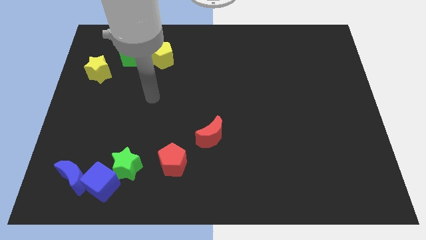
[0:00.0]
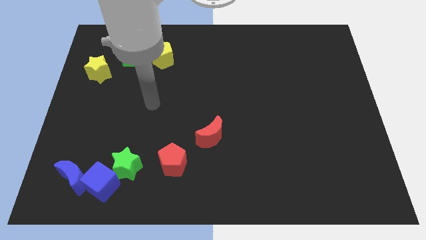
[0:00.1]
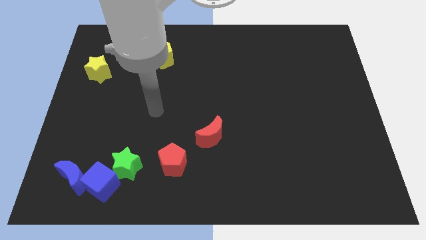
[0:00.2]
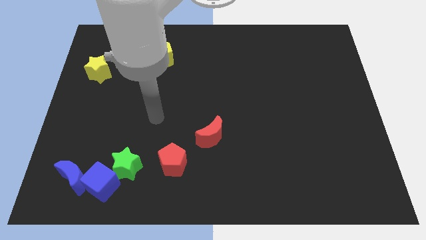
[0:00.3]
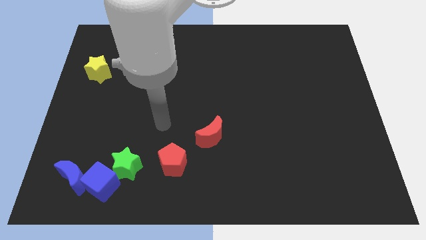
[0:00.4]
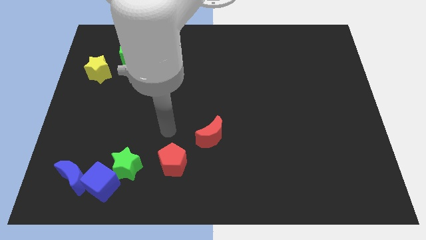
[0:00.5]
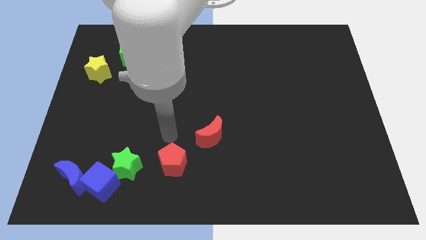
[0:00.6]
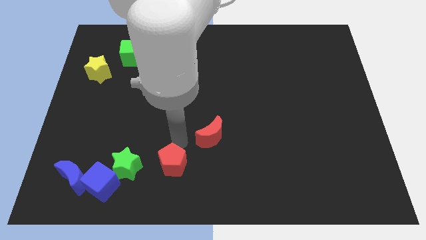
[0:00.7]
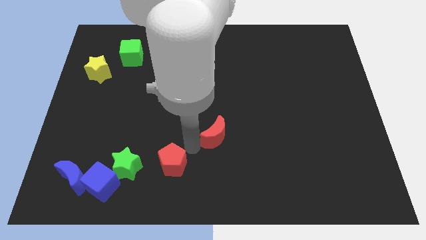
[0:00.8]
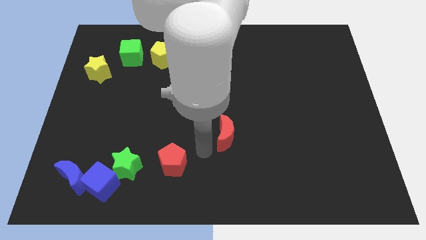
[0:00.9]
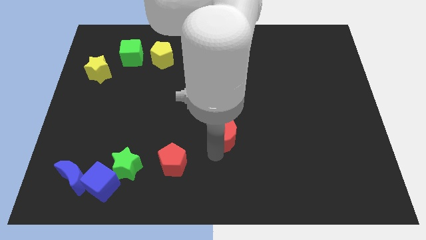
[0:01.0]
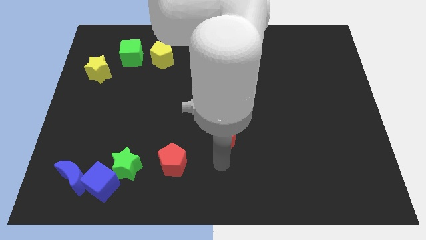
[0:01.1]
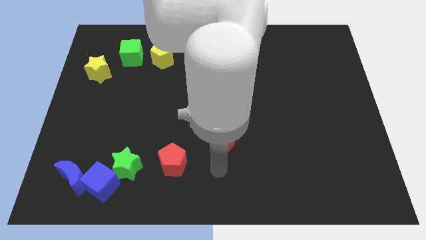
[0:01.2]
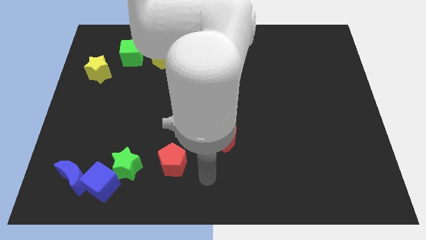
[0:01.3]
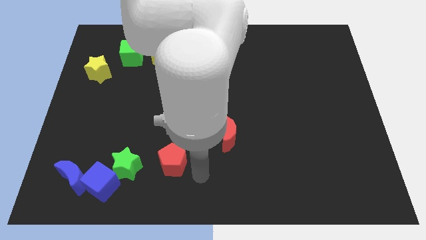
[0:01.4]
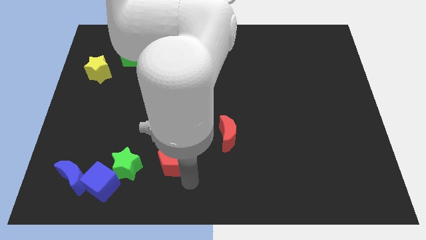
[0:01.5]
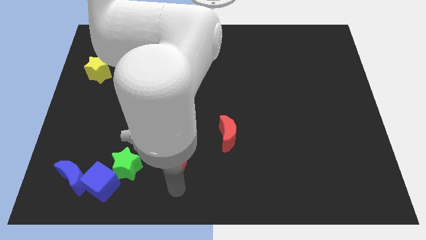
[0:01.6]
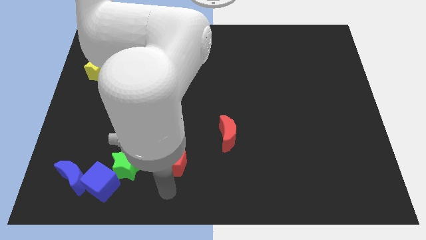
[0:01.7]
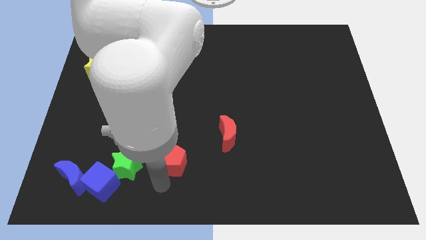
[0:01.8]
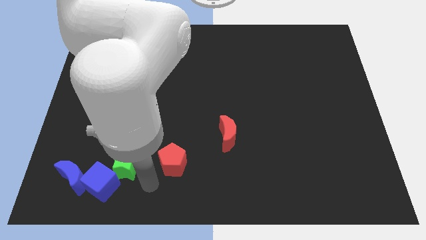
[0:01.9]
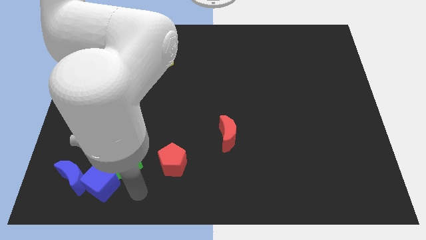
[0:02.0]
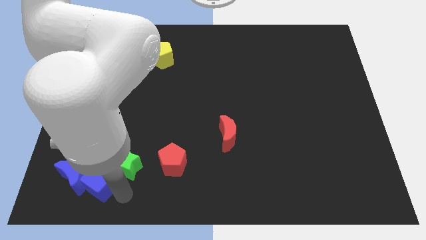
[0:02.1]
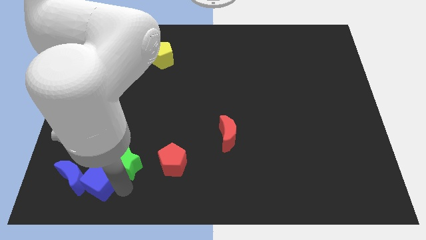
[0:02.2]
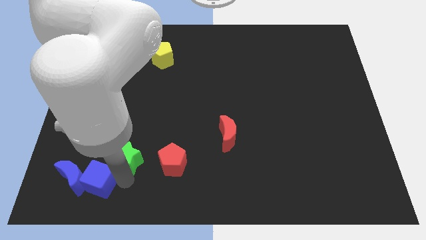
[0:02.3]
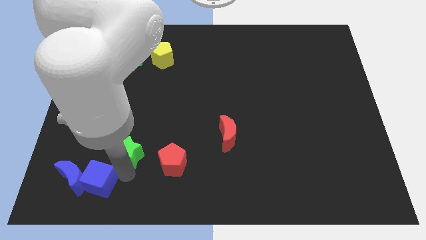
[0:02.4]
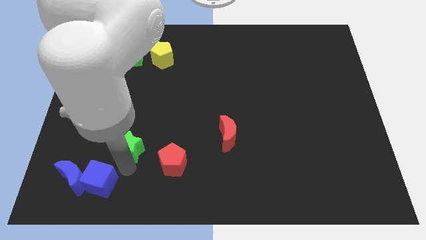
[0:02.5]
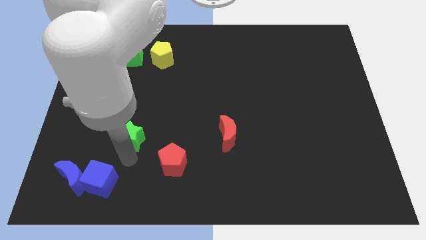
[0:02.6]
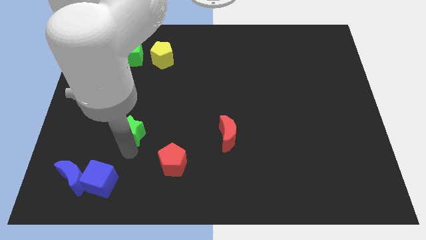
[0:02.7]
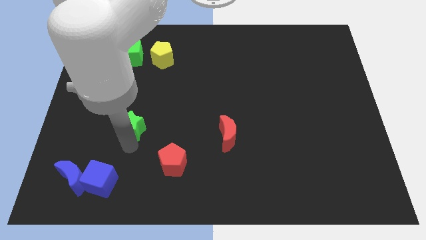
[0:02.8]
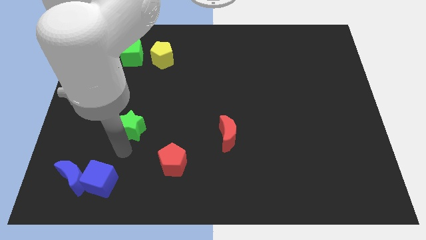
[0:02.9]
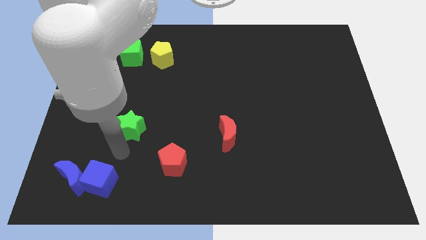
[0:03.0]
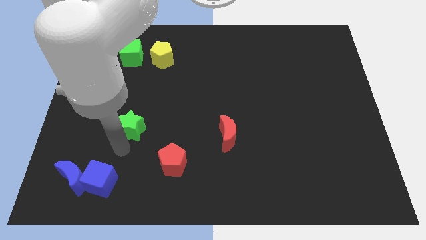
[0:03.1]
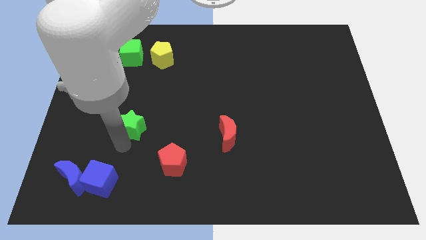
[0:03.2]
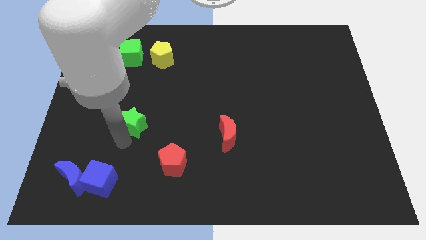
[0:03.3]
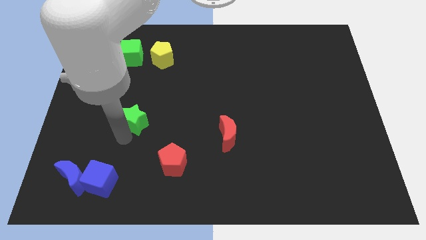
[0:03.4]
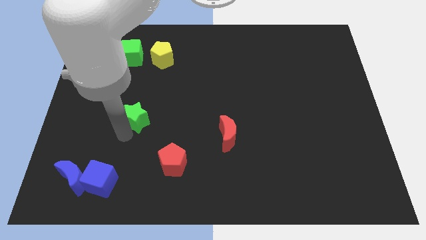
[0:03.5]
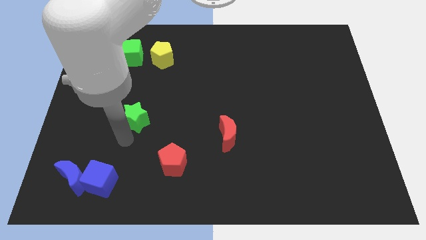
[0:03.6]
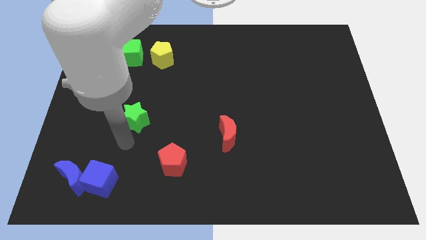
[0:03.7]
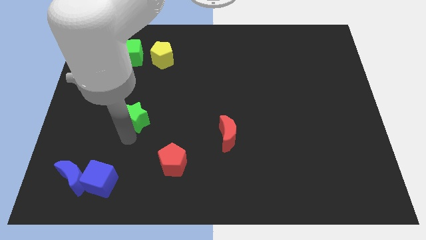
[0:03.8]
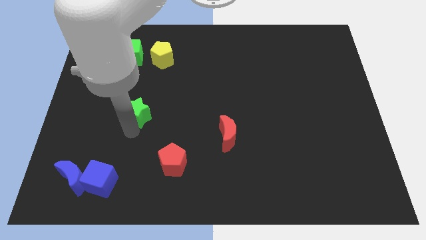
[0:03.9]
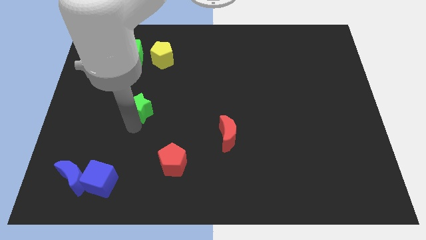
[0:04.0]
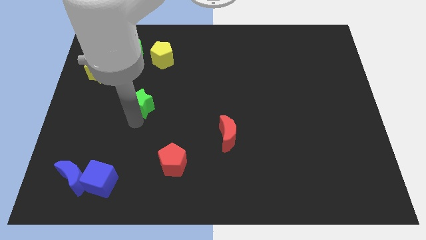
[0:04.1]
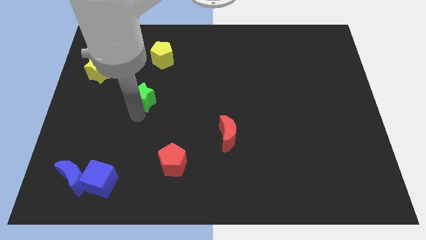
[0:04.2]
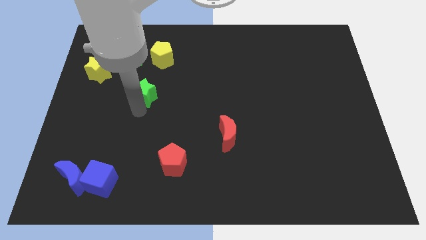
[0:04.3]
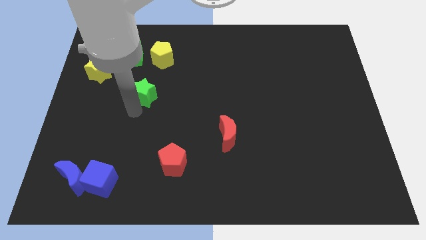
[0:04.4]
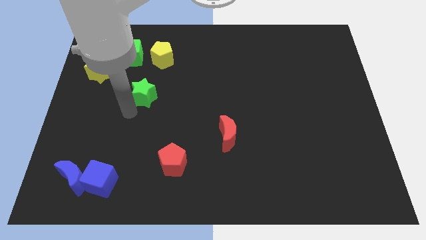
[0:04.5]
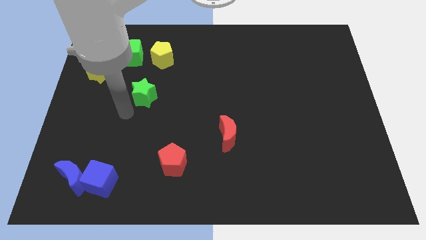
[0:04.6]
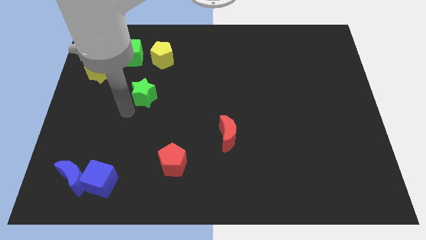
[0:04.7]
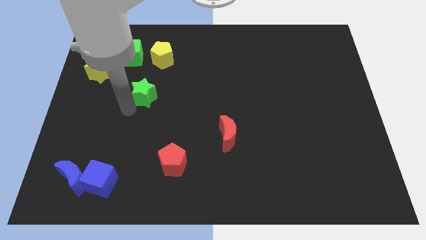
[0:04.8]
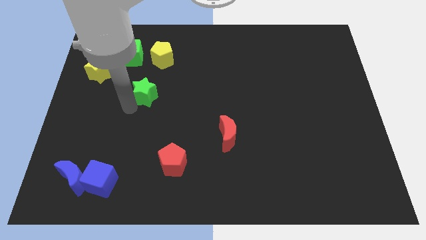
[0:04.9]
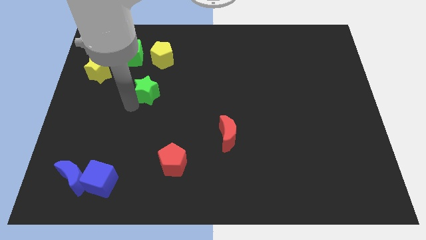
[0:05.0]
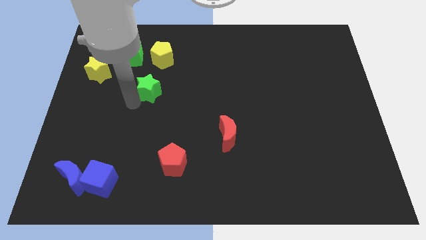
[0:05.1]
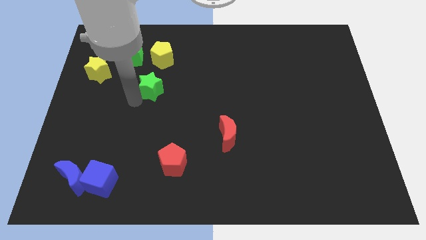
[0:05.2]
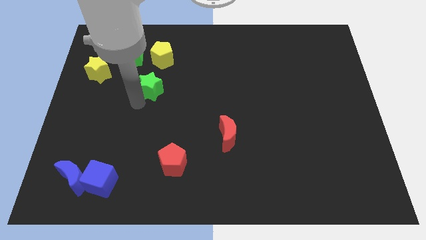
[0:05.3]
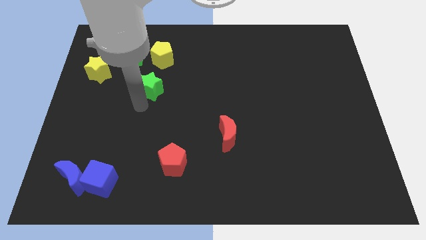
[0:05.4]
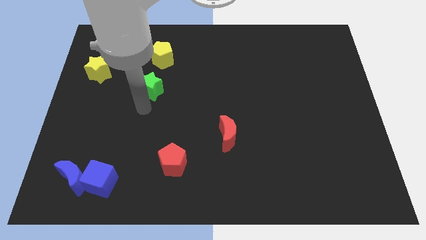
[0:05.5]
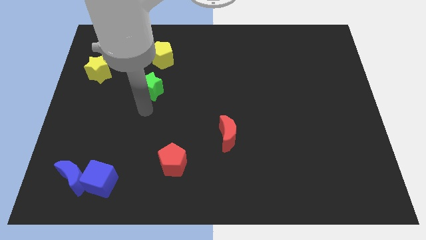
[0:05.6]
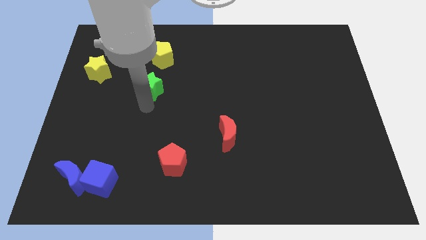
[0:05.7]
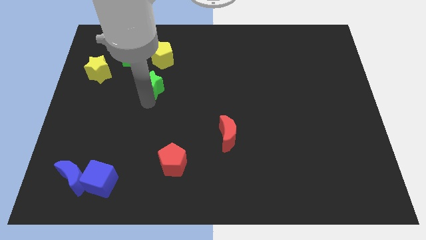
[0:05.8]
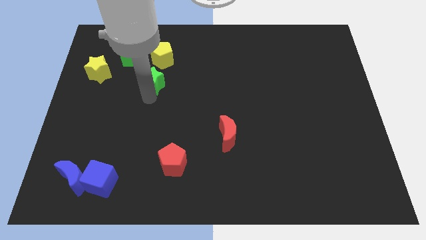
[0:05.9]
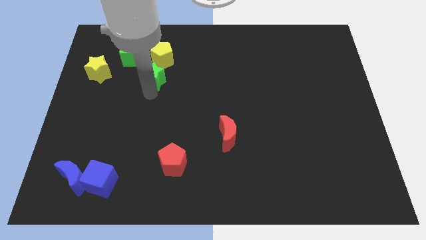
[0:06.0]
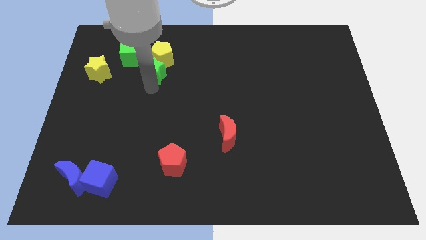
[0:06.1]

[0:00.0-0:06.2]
put the green star close to the yellow pentagon
